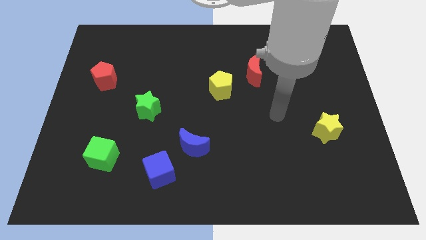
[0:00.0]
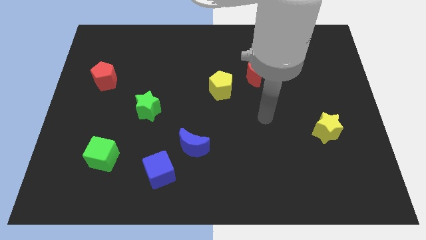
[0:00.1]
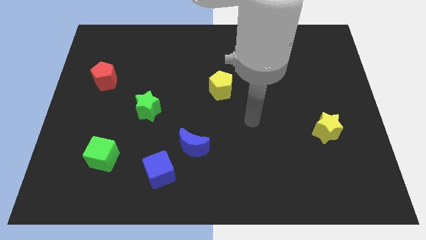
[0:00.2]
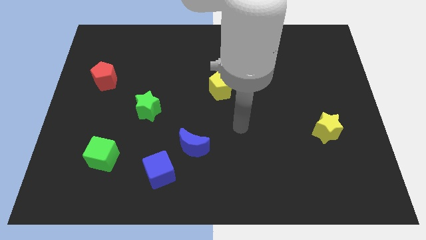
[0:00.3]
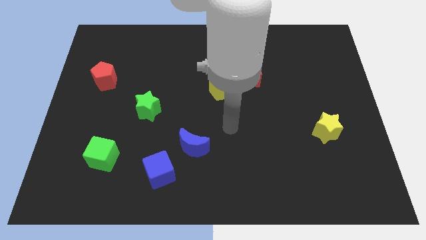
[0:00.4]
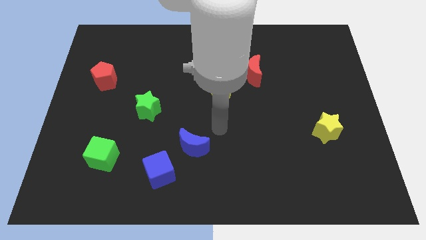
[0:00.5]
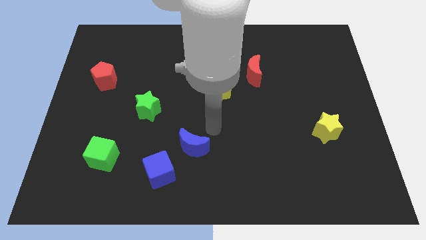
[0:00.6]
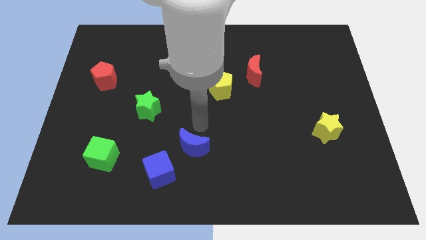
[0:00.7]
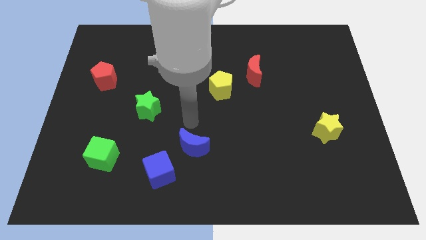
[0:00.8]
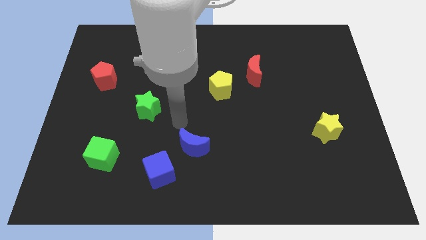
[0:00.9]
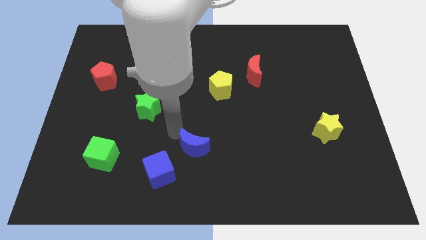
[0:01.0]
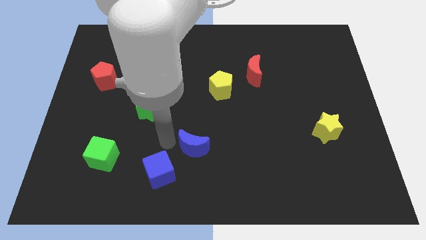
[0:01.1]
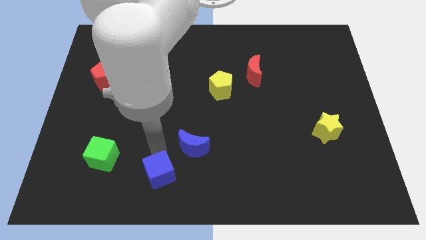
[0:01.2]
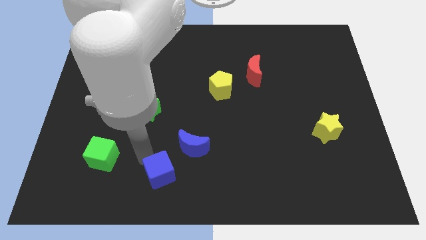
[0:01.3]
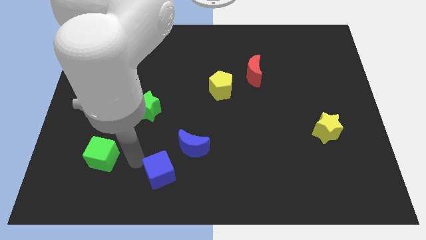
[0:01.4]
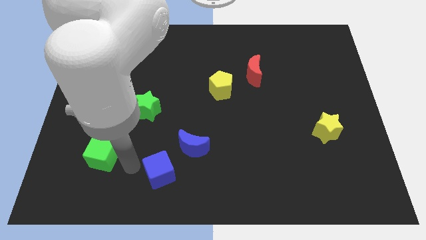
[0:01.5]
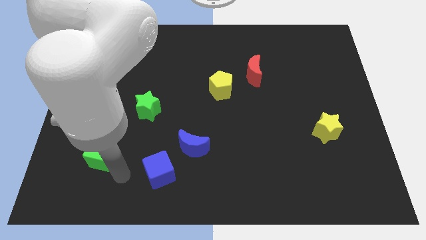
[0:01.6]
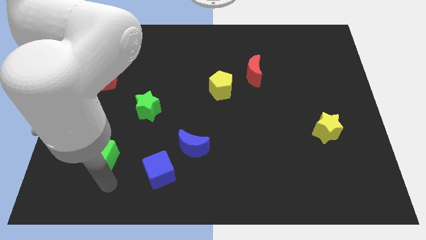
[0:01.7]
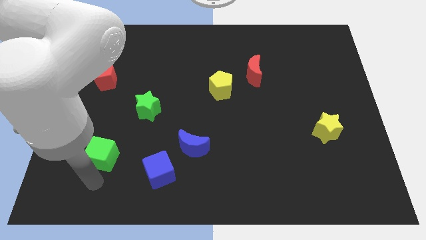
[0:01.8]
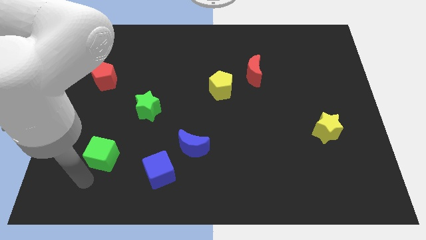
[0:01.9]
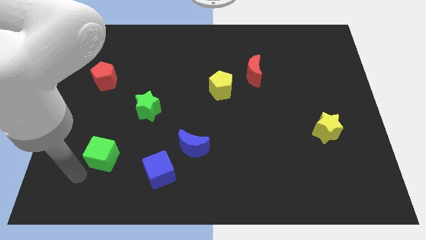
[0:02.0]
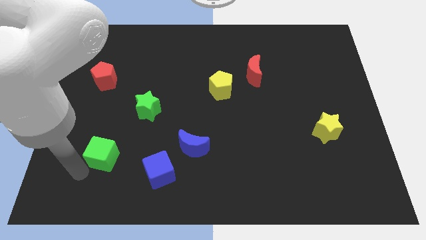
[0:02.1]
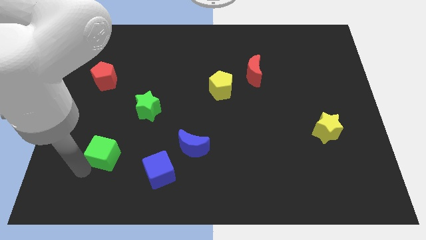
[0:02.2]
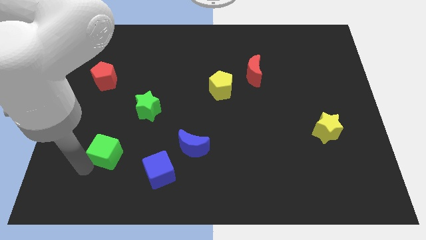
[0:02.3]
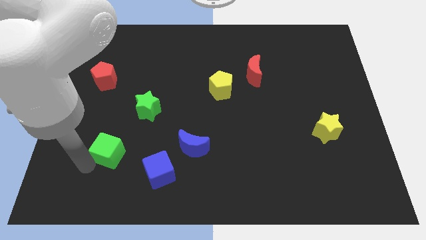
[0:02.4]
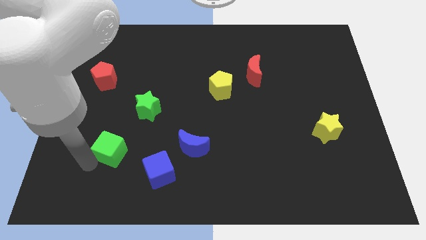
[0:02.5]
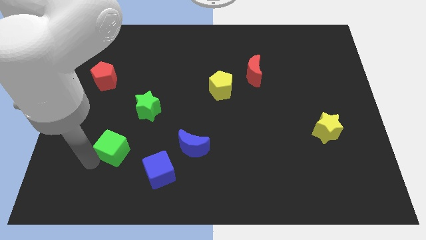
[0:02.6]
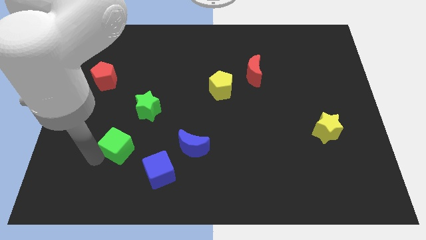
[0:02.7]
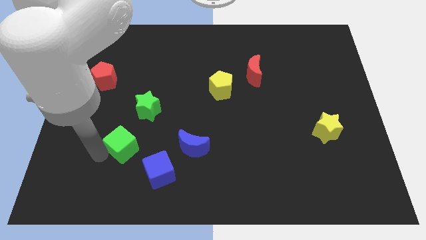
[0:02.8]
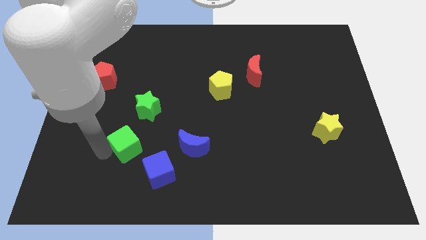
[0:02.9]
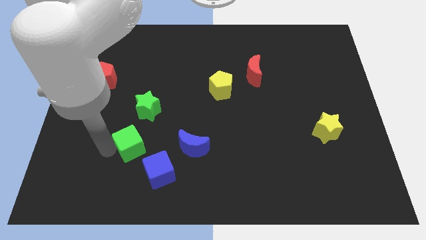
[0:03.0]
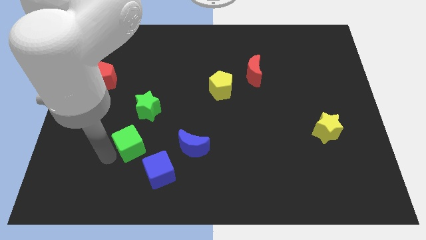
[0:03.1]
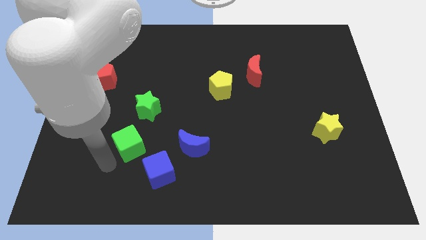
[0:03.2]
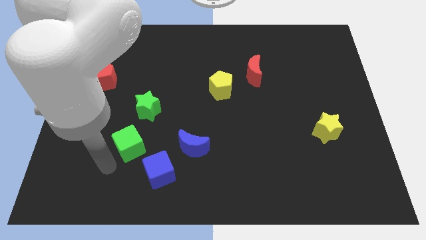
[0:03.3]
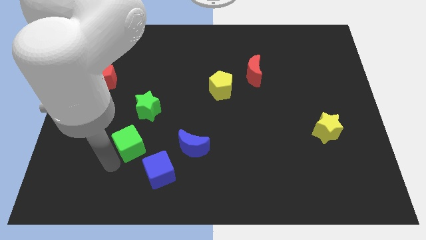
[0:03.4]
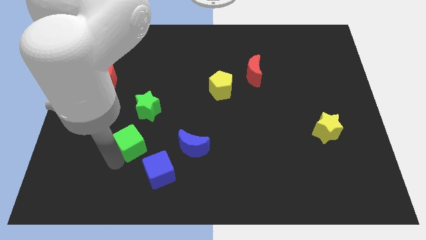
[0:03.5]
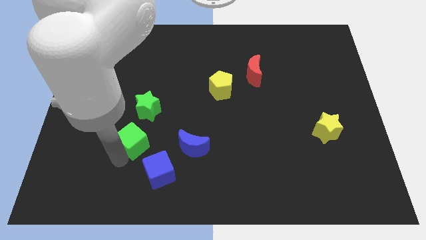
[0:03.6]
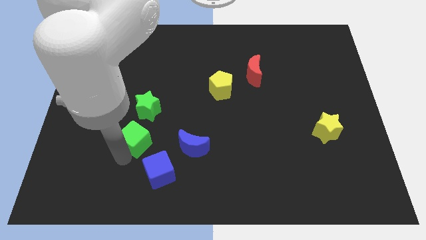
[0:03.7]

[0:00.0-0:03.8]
push the green cube up and then right a bit

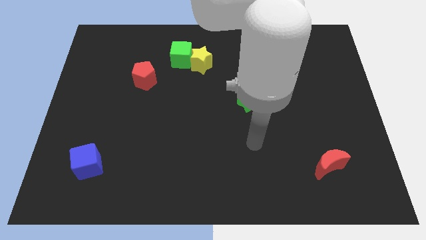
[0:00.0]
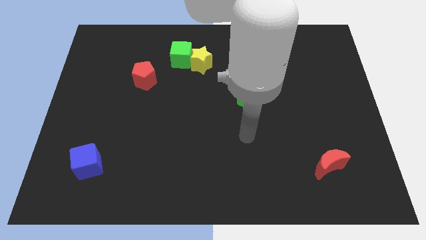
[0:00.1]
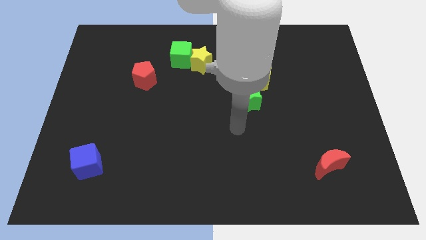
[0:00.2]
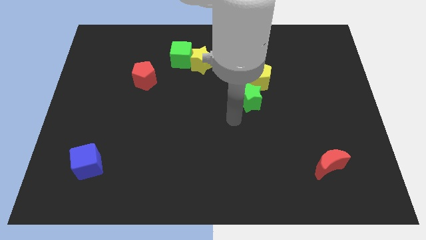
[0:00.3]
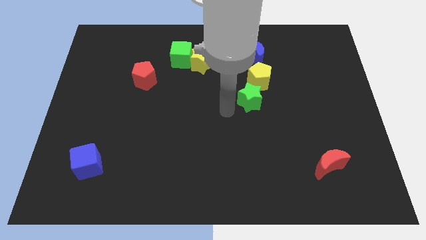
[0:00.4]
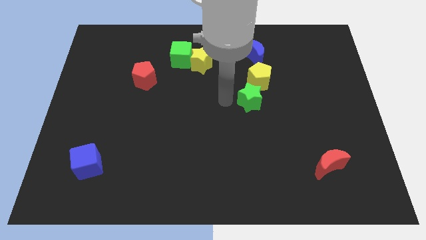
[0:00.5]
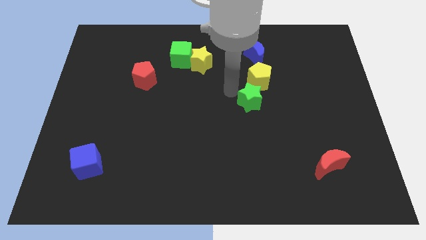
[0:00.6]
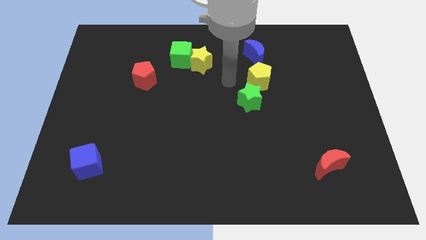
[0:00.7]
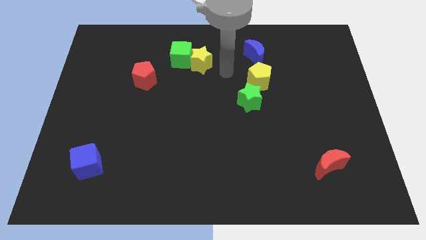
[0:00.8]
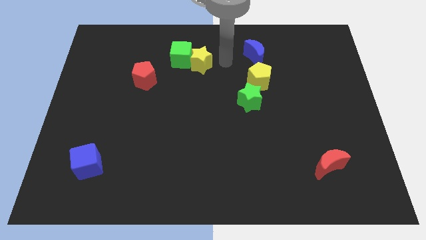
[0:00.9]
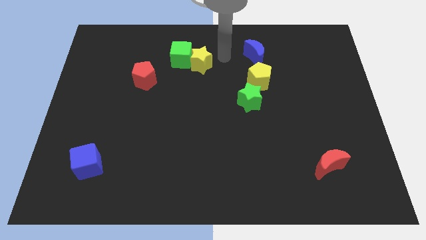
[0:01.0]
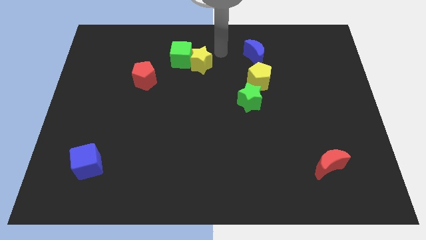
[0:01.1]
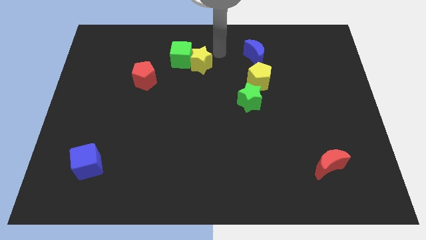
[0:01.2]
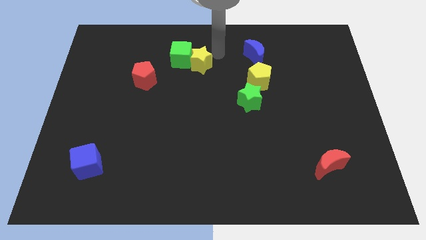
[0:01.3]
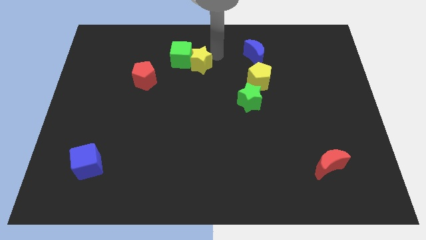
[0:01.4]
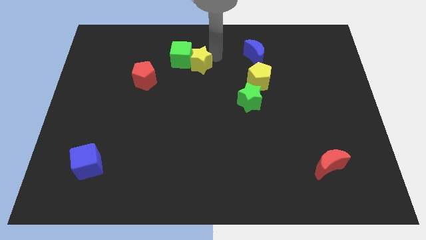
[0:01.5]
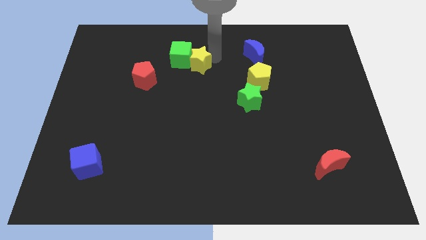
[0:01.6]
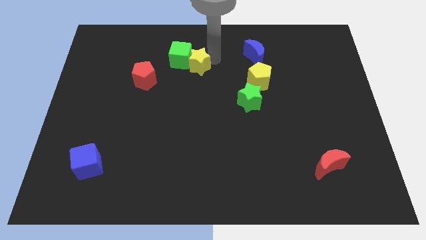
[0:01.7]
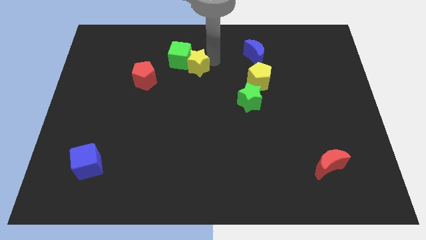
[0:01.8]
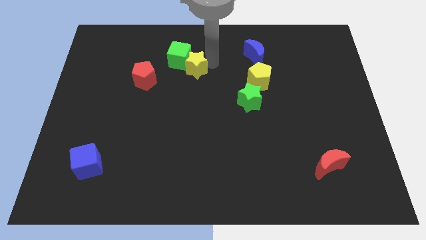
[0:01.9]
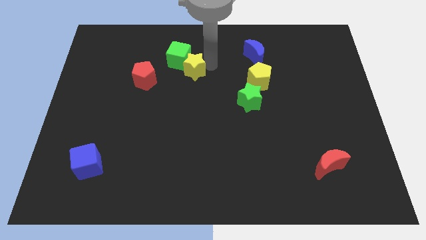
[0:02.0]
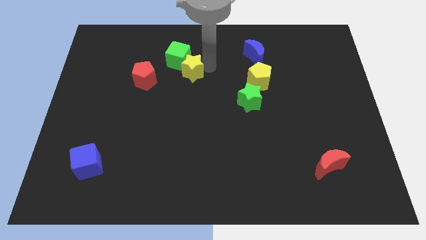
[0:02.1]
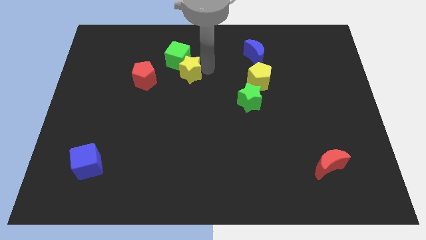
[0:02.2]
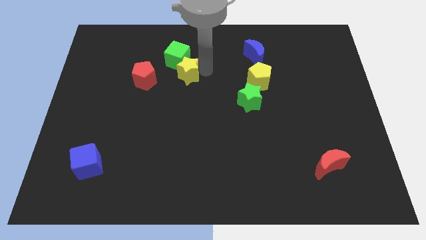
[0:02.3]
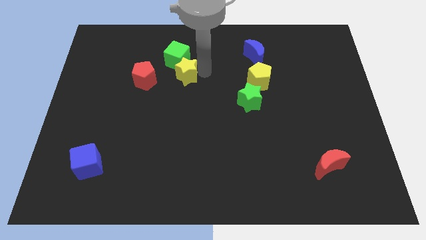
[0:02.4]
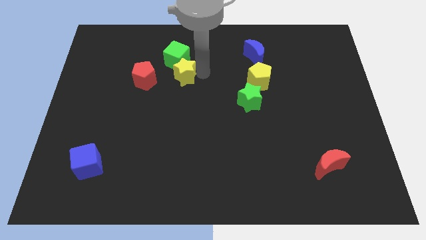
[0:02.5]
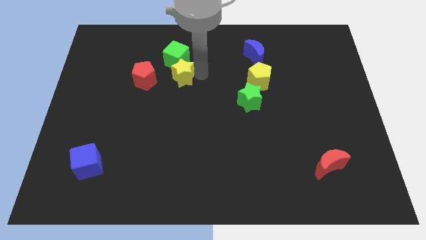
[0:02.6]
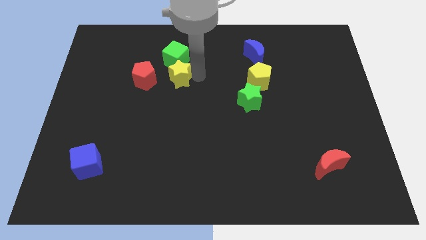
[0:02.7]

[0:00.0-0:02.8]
move the yellow star a little downwards and left diagonally

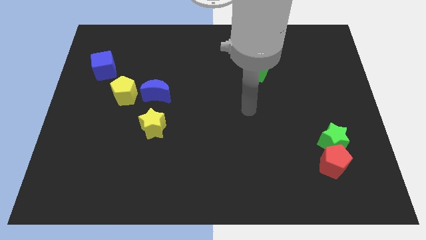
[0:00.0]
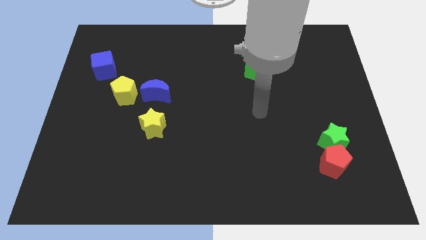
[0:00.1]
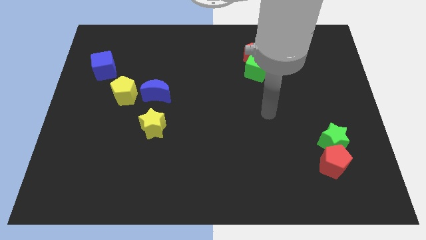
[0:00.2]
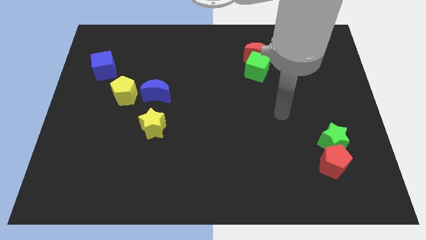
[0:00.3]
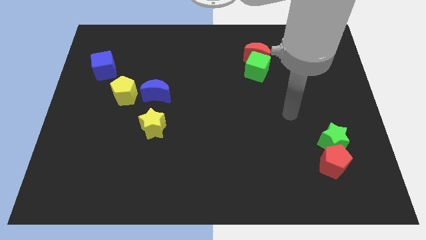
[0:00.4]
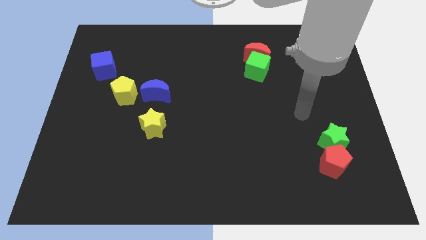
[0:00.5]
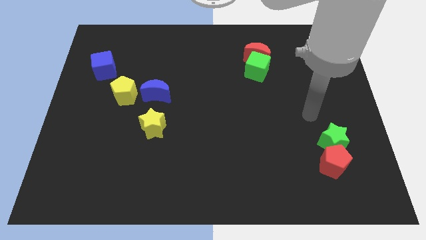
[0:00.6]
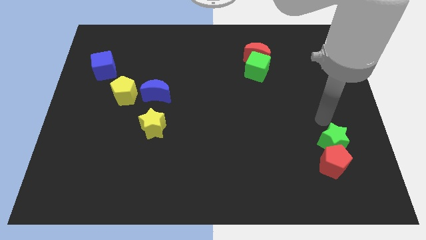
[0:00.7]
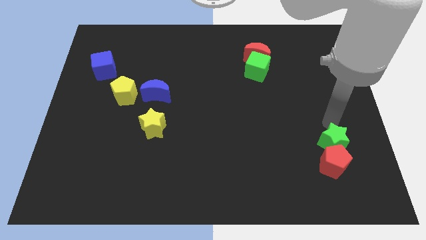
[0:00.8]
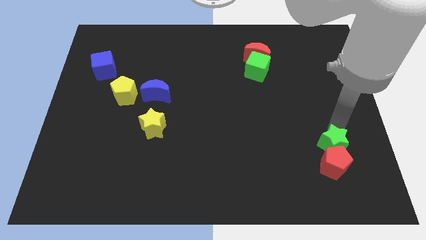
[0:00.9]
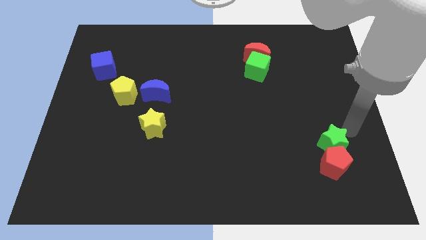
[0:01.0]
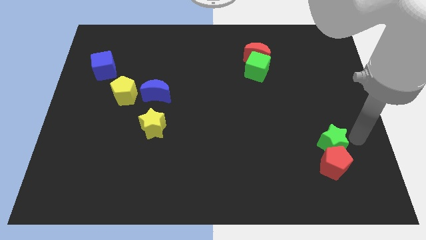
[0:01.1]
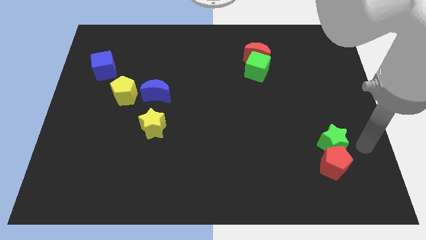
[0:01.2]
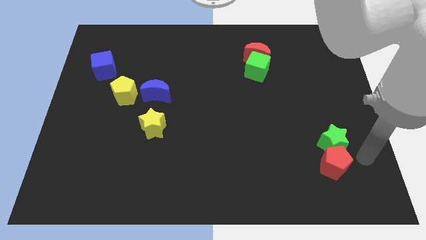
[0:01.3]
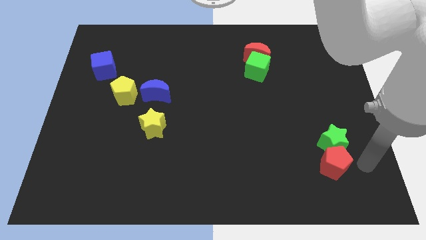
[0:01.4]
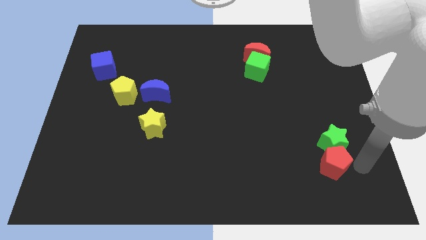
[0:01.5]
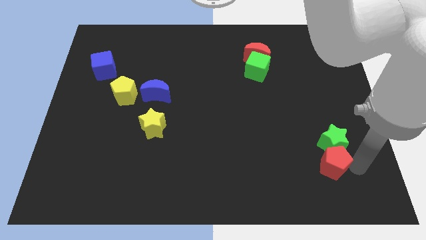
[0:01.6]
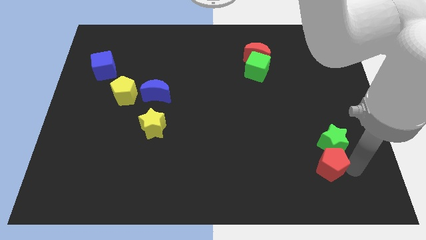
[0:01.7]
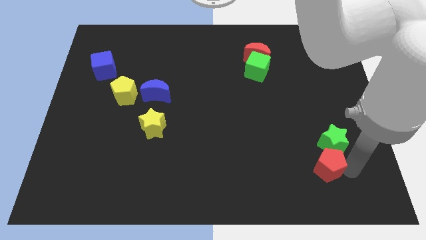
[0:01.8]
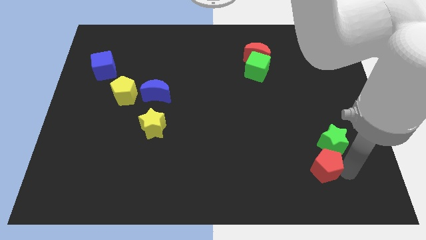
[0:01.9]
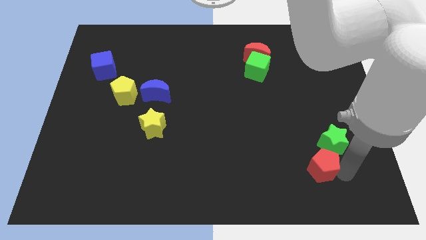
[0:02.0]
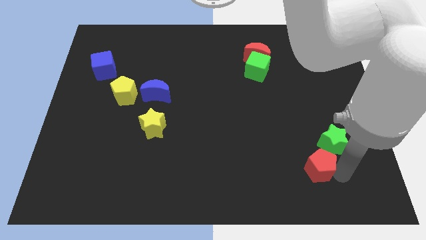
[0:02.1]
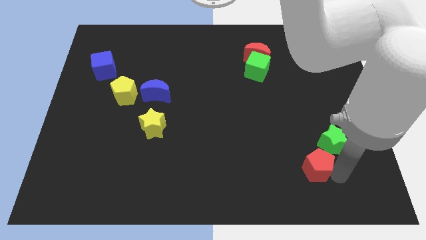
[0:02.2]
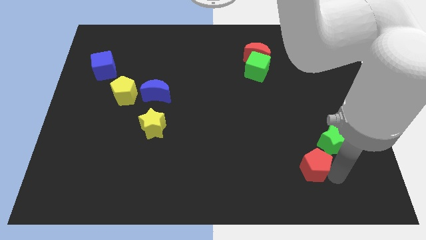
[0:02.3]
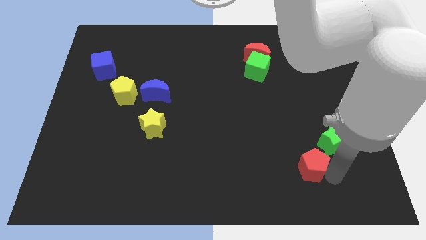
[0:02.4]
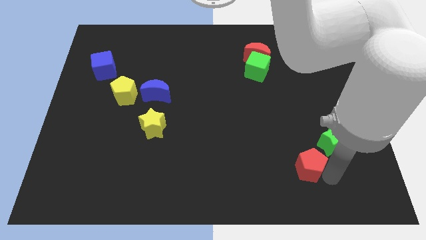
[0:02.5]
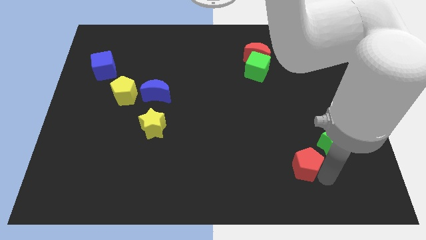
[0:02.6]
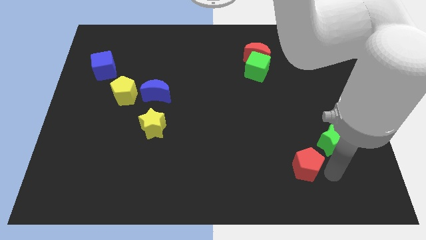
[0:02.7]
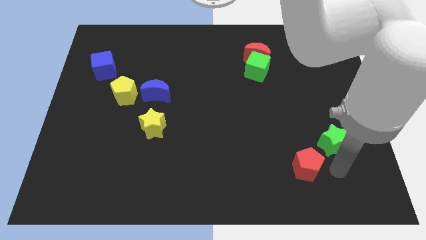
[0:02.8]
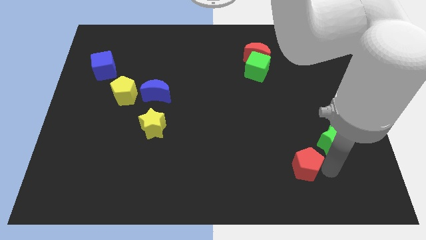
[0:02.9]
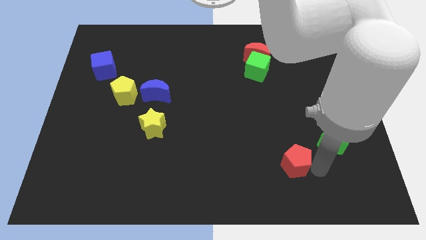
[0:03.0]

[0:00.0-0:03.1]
move the red pentagon a little bit to the left
